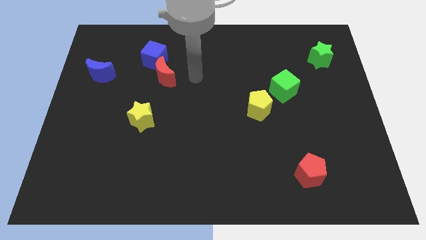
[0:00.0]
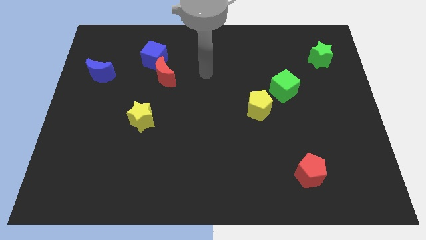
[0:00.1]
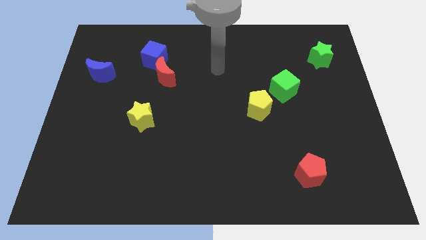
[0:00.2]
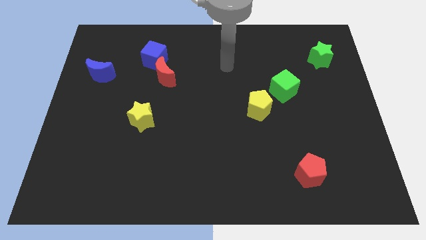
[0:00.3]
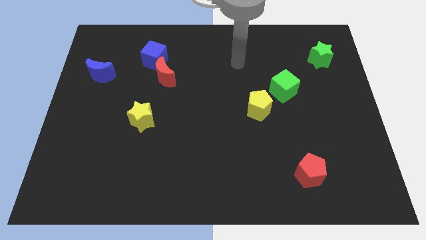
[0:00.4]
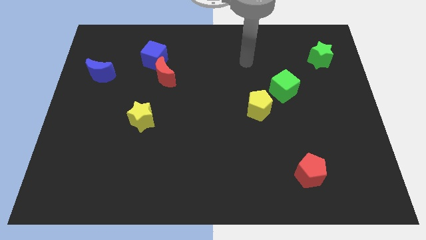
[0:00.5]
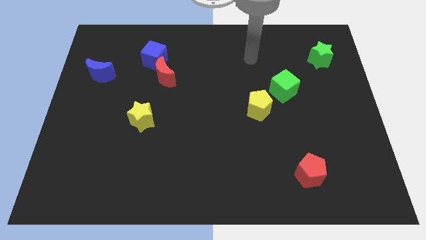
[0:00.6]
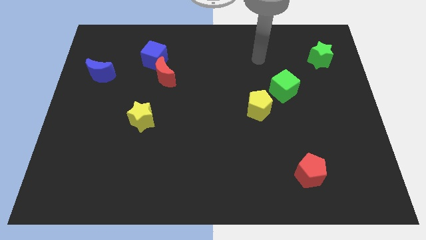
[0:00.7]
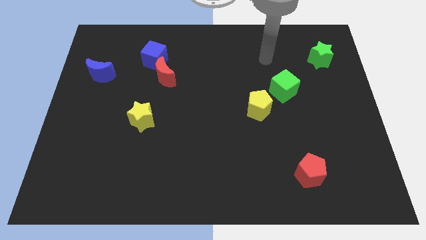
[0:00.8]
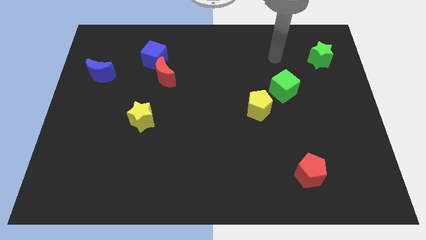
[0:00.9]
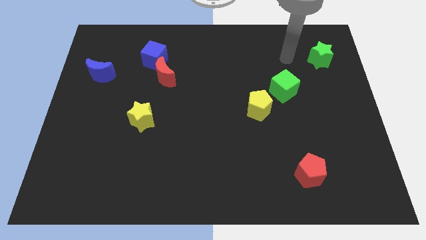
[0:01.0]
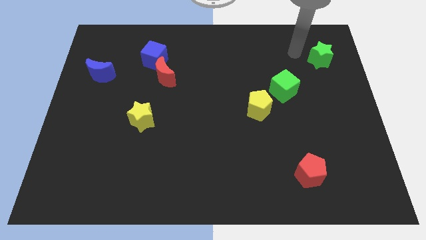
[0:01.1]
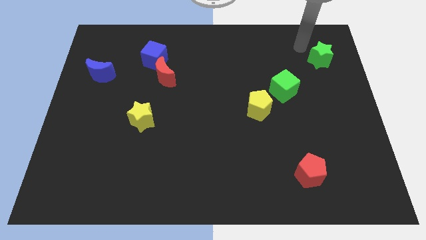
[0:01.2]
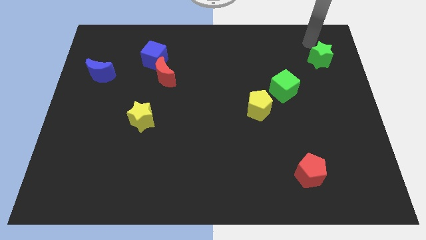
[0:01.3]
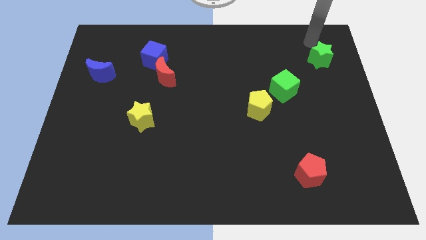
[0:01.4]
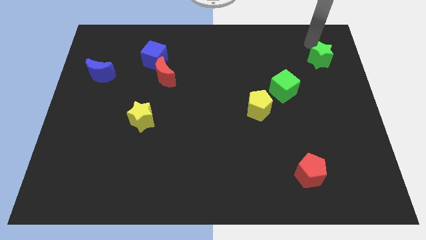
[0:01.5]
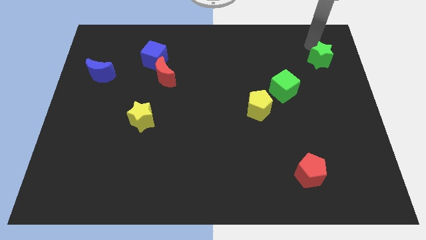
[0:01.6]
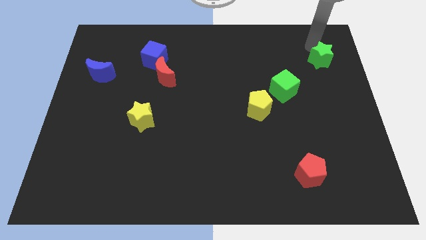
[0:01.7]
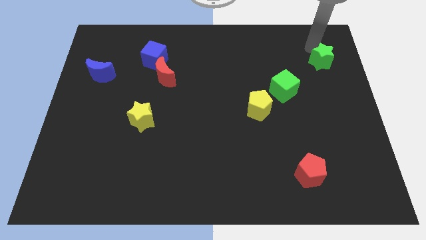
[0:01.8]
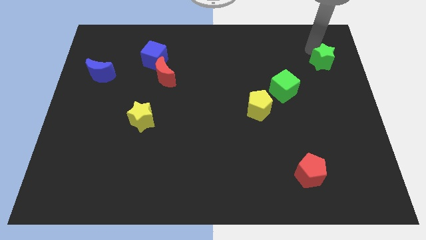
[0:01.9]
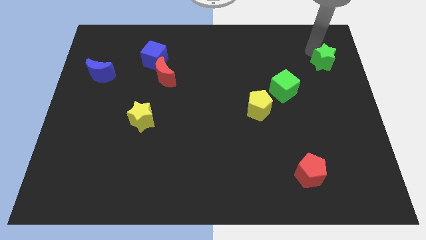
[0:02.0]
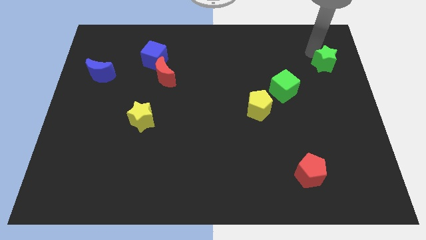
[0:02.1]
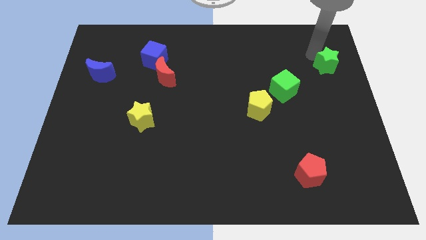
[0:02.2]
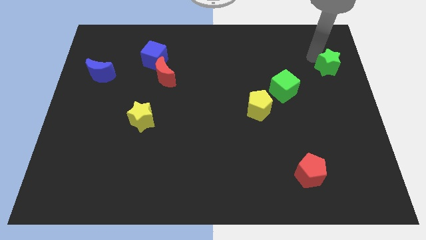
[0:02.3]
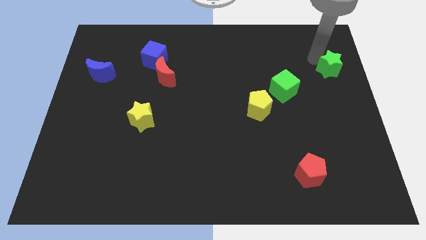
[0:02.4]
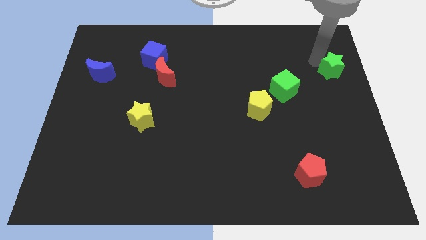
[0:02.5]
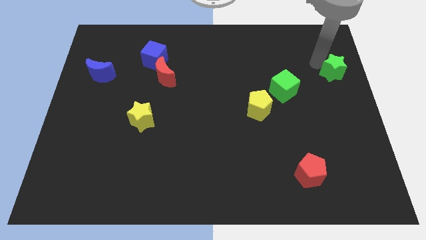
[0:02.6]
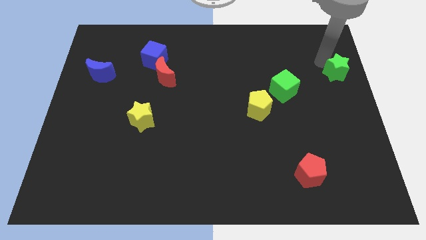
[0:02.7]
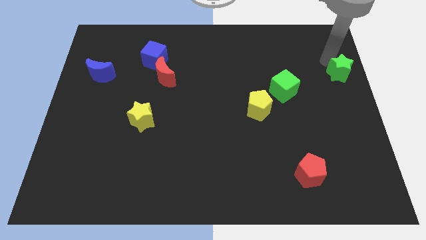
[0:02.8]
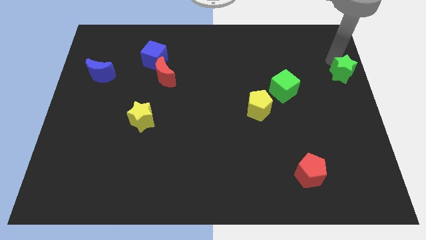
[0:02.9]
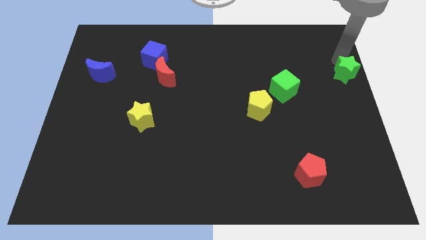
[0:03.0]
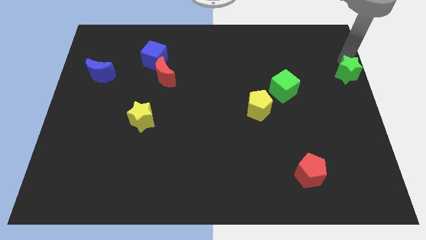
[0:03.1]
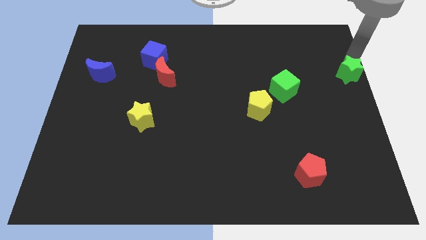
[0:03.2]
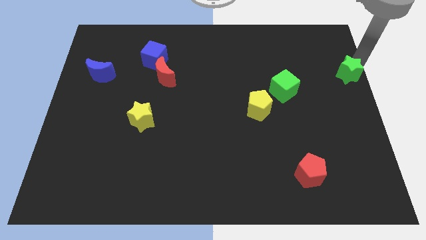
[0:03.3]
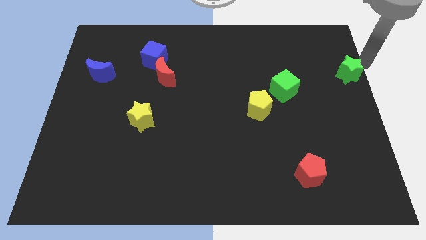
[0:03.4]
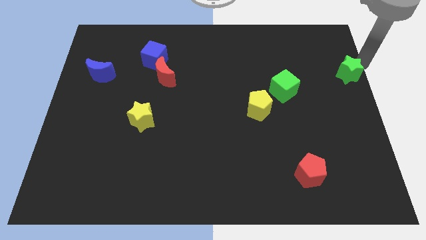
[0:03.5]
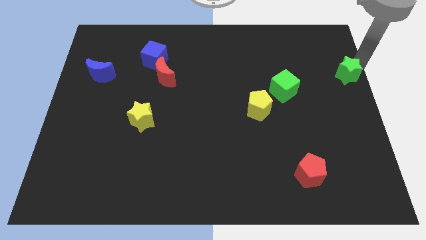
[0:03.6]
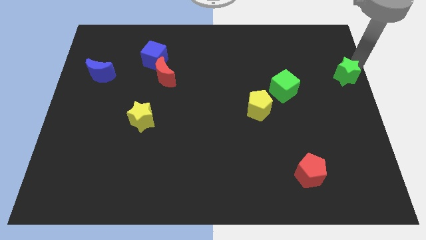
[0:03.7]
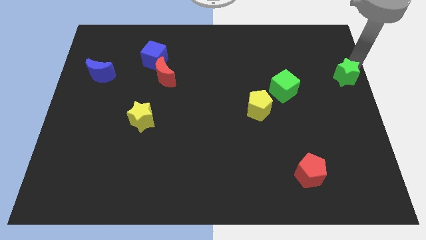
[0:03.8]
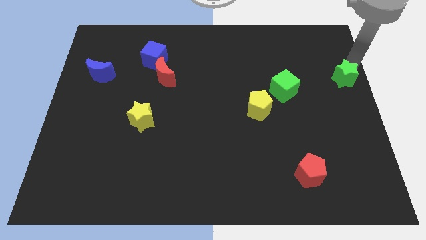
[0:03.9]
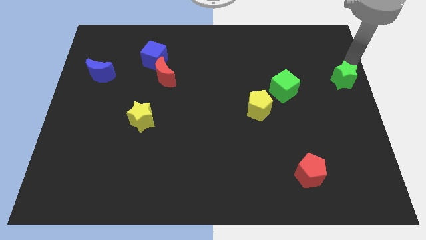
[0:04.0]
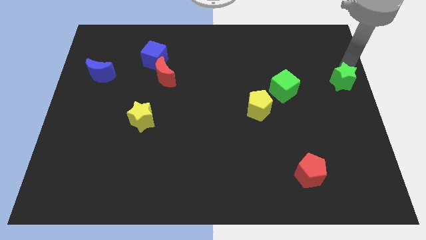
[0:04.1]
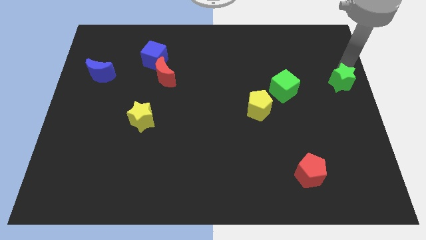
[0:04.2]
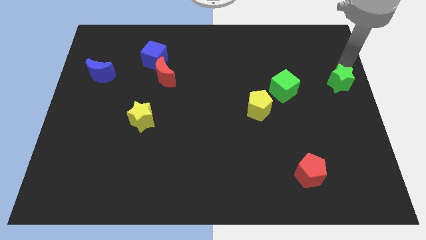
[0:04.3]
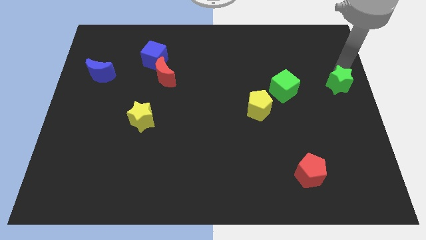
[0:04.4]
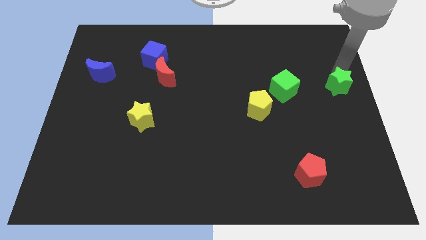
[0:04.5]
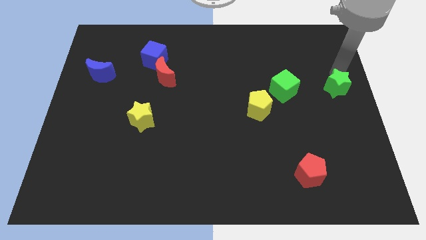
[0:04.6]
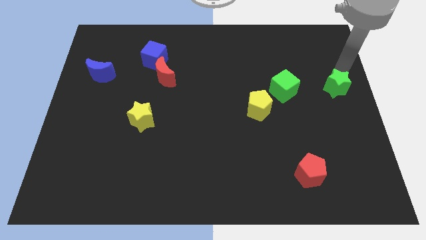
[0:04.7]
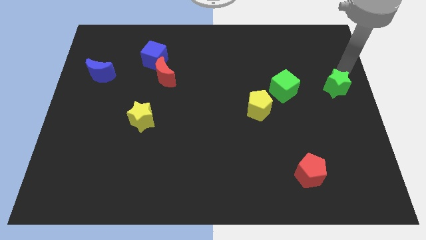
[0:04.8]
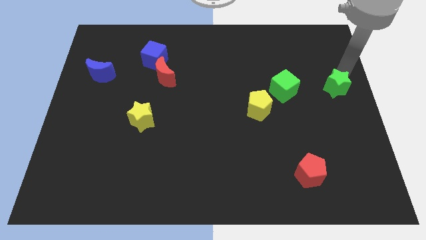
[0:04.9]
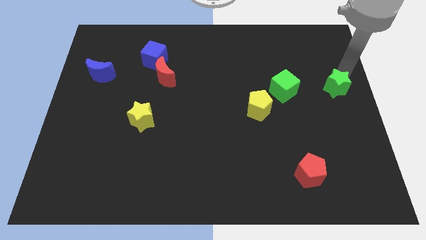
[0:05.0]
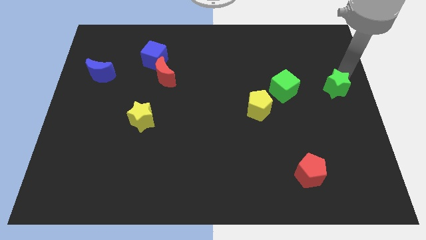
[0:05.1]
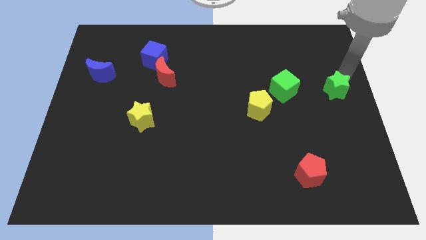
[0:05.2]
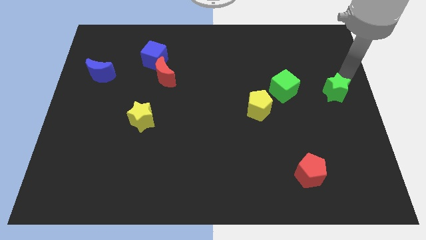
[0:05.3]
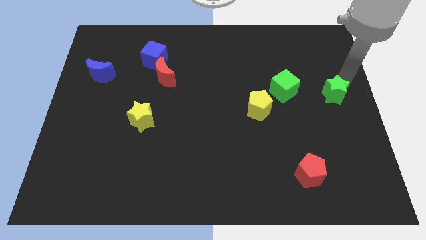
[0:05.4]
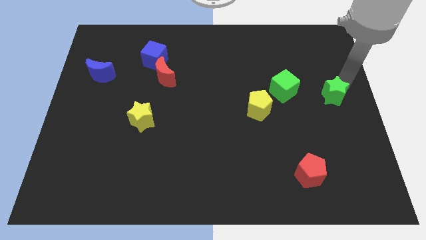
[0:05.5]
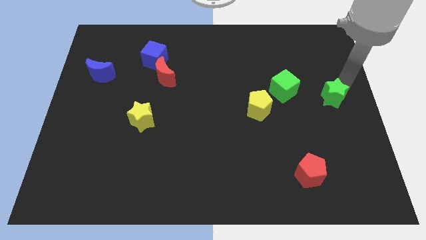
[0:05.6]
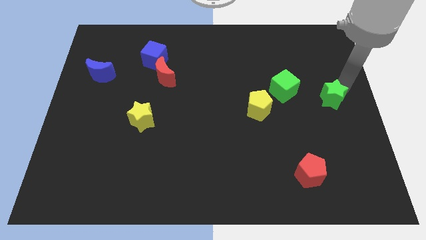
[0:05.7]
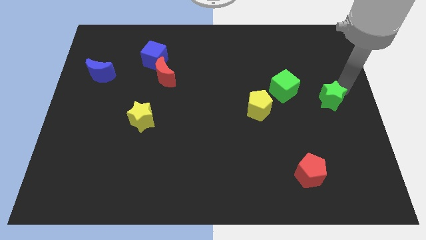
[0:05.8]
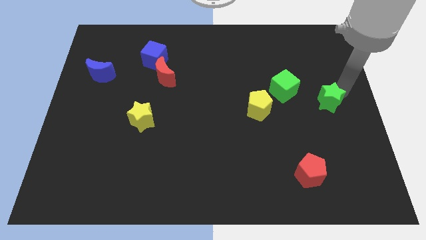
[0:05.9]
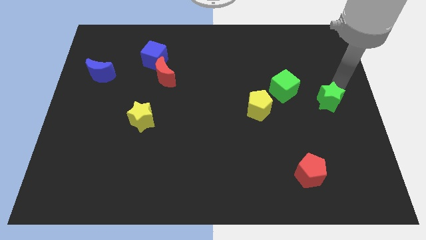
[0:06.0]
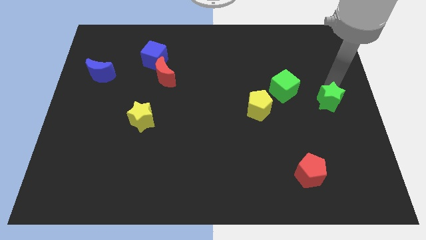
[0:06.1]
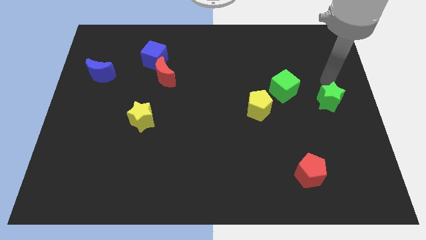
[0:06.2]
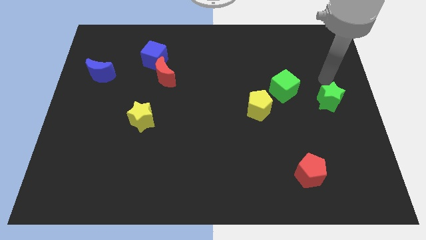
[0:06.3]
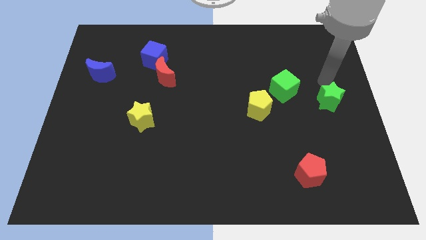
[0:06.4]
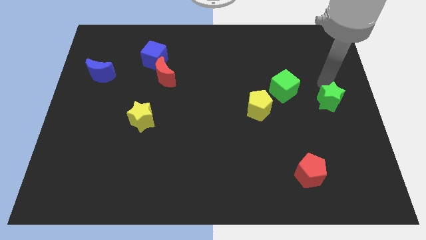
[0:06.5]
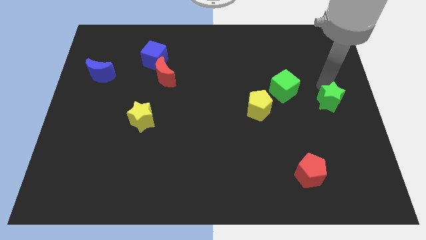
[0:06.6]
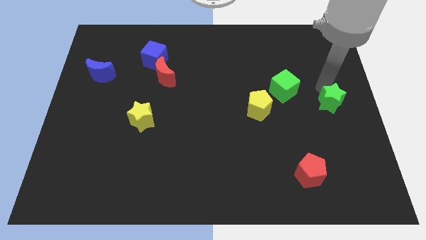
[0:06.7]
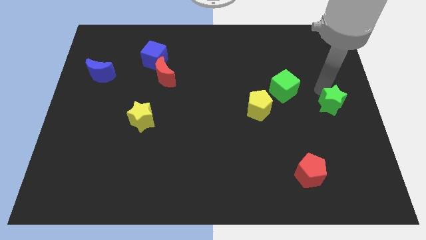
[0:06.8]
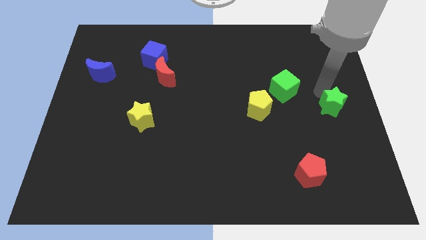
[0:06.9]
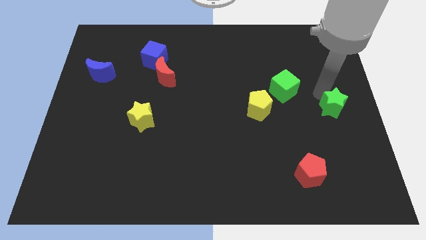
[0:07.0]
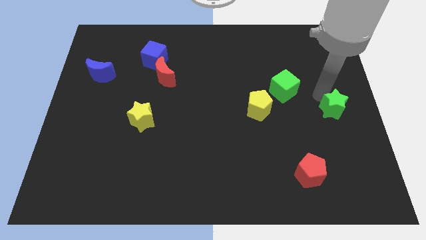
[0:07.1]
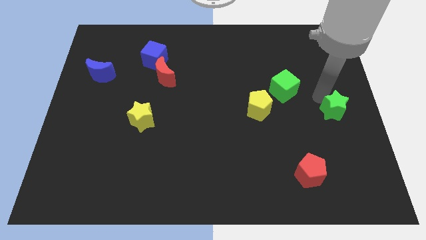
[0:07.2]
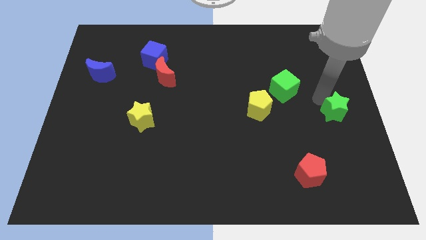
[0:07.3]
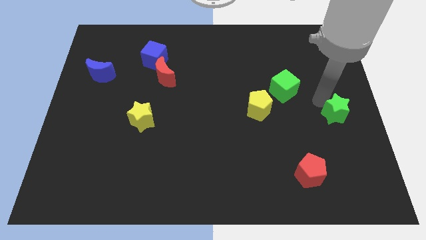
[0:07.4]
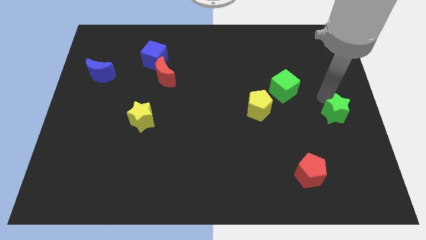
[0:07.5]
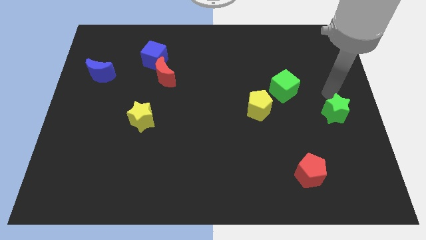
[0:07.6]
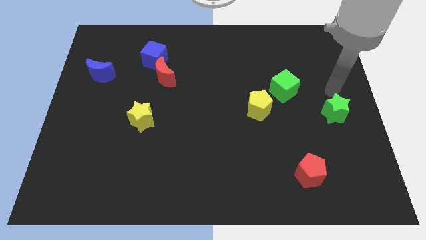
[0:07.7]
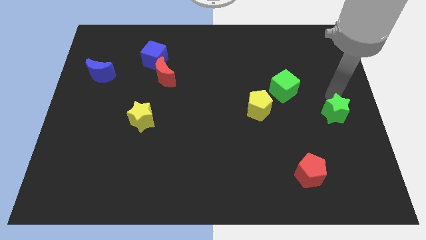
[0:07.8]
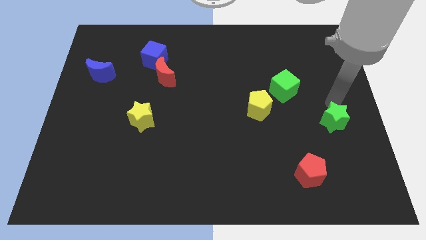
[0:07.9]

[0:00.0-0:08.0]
push the green star down

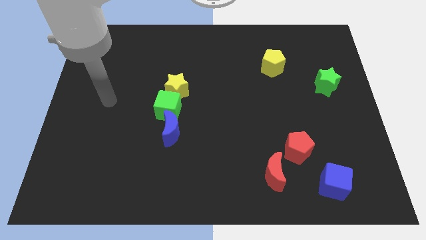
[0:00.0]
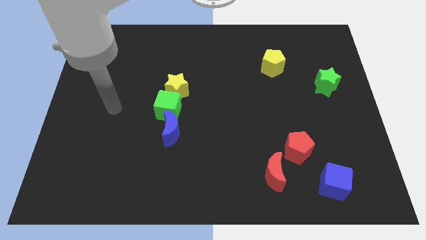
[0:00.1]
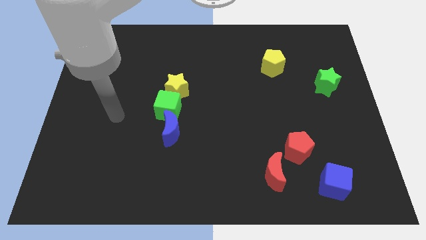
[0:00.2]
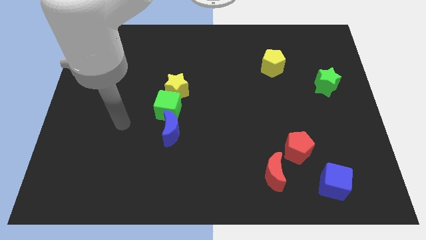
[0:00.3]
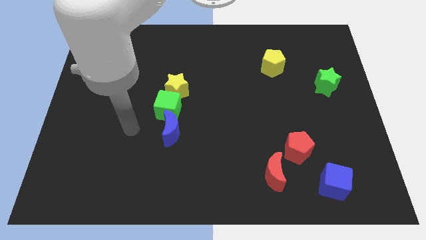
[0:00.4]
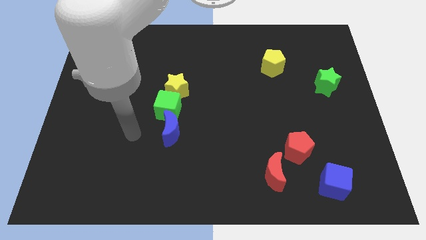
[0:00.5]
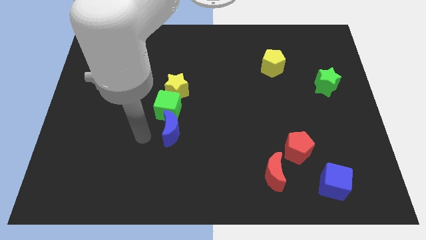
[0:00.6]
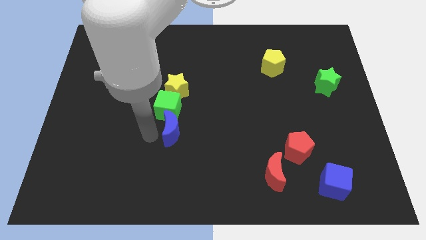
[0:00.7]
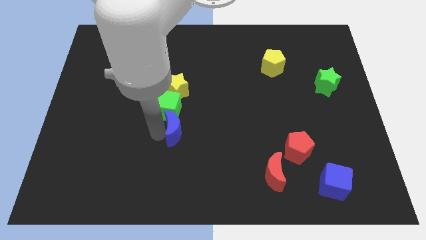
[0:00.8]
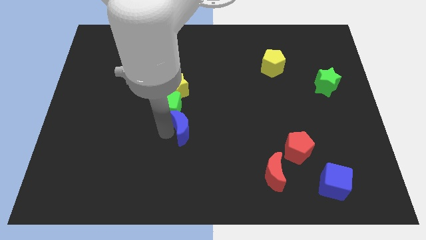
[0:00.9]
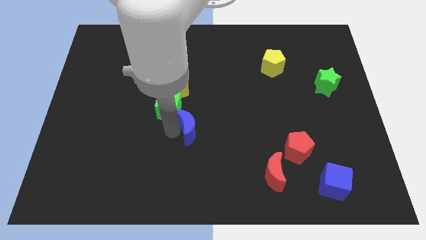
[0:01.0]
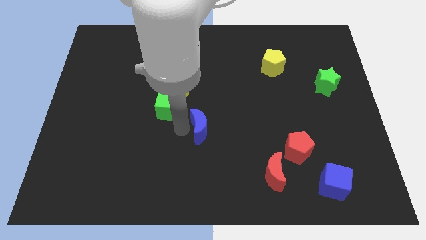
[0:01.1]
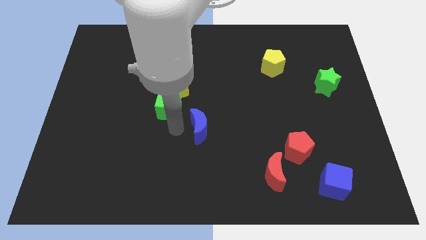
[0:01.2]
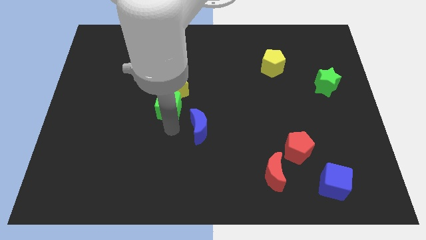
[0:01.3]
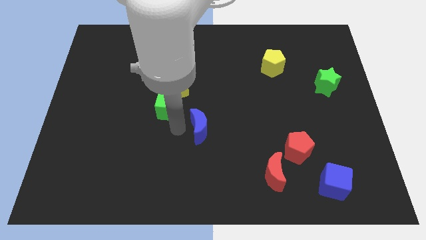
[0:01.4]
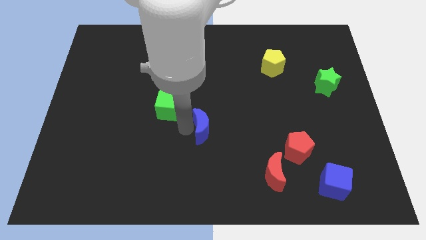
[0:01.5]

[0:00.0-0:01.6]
move the blue moon to the right a bit
